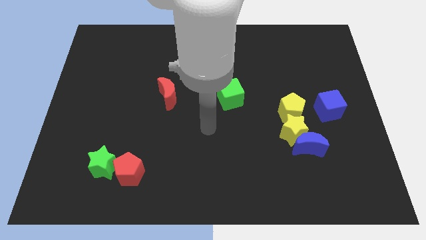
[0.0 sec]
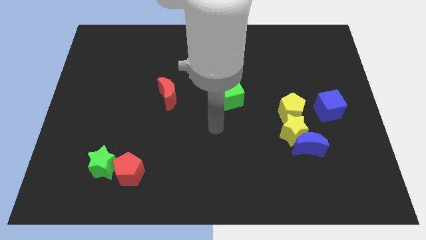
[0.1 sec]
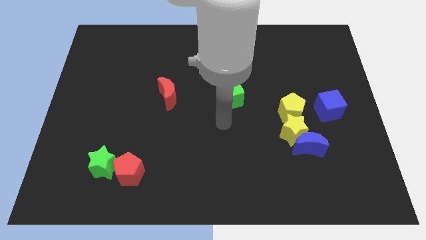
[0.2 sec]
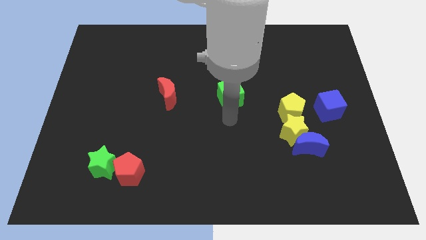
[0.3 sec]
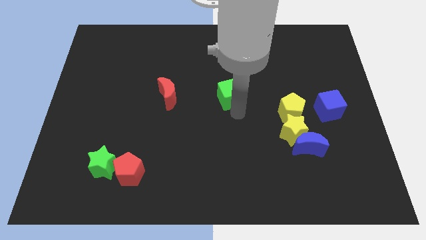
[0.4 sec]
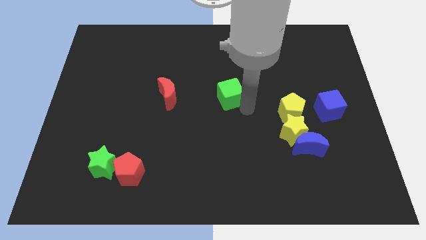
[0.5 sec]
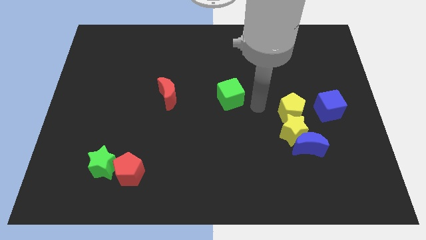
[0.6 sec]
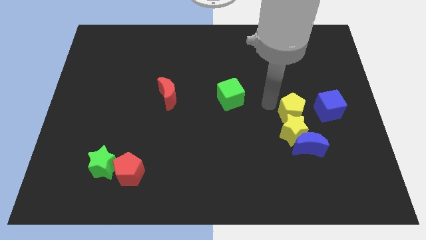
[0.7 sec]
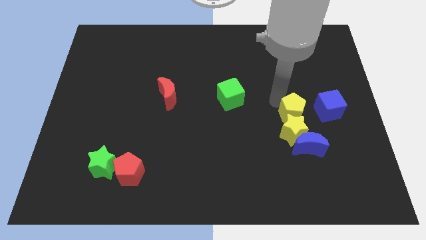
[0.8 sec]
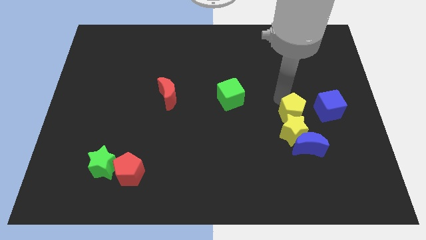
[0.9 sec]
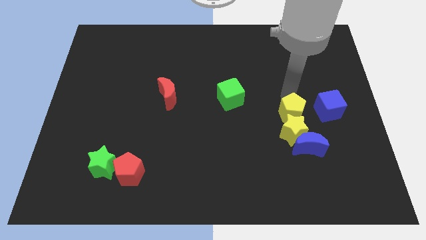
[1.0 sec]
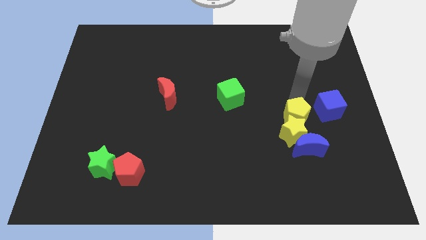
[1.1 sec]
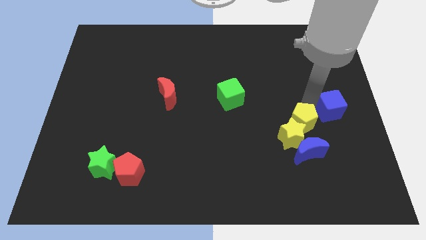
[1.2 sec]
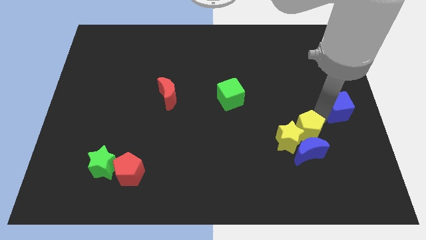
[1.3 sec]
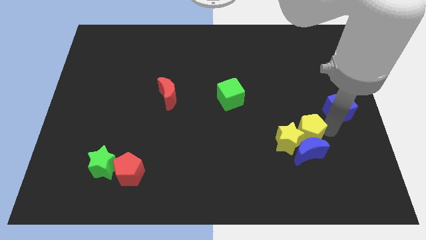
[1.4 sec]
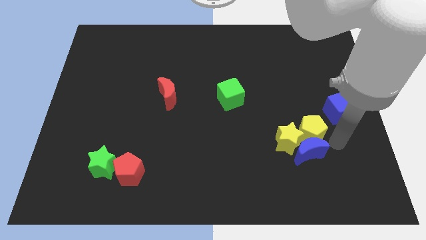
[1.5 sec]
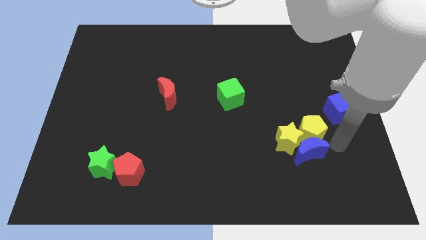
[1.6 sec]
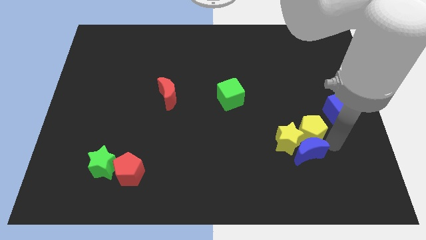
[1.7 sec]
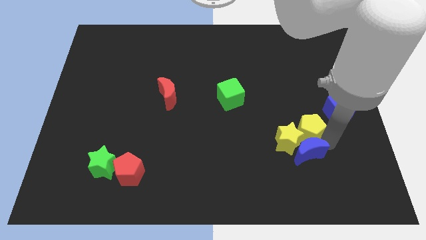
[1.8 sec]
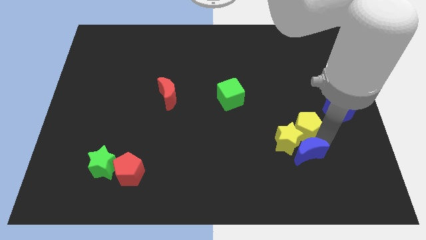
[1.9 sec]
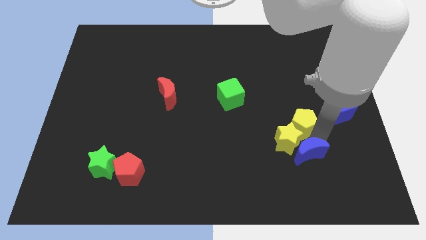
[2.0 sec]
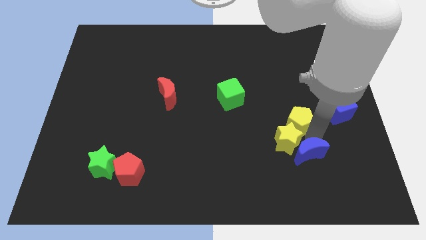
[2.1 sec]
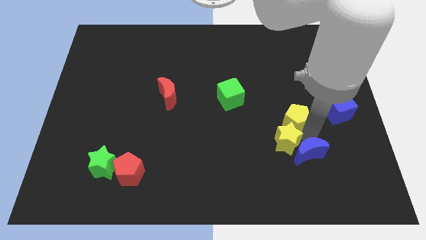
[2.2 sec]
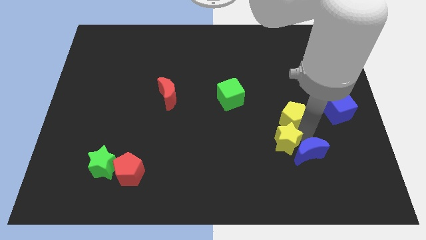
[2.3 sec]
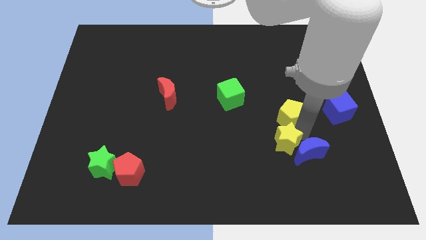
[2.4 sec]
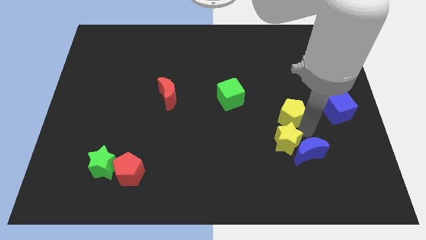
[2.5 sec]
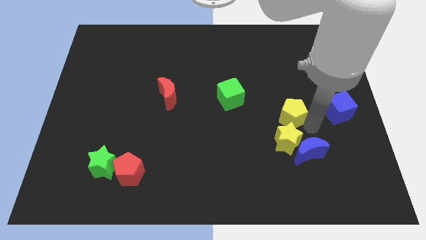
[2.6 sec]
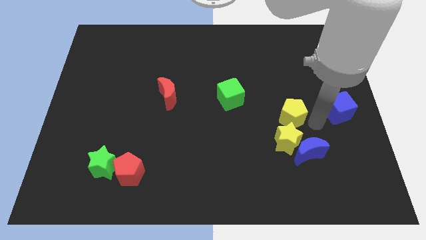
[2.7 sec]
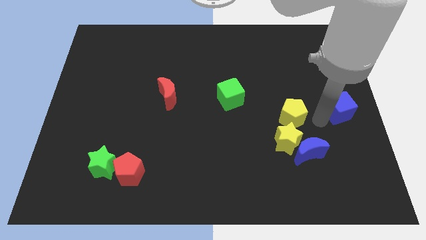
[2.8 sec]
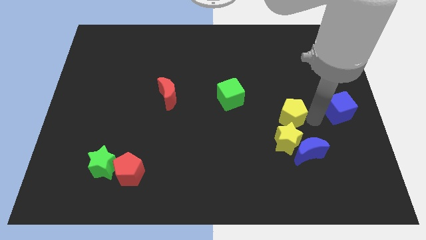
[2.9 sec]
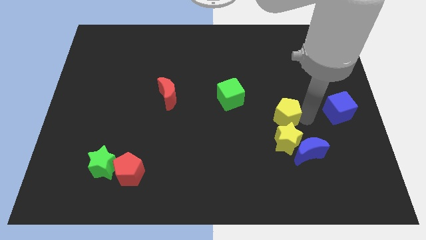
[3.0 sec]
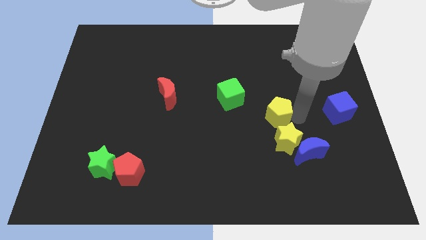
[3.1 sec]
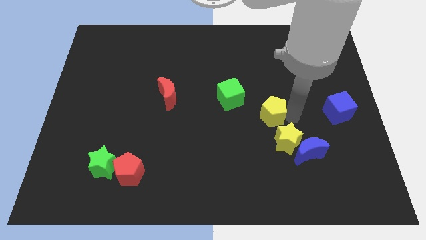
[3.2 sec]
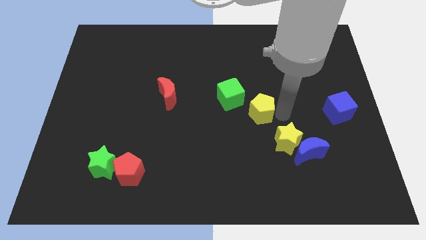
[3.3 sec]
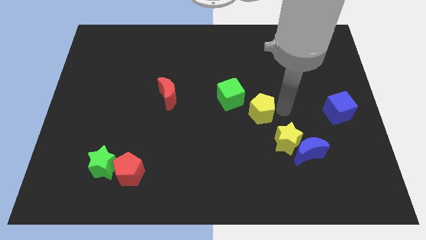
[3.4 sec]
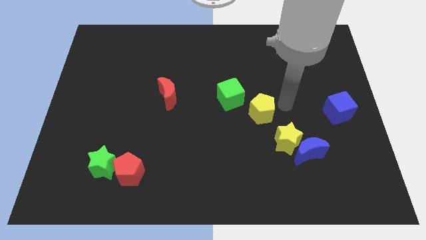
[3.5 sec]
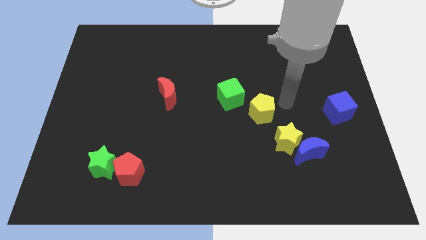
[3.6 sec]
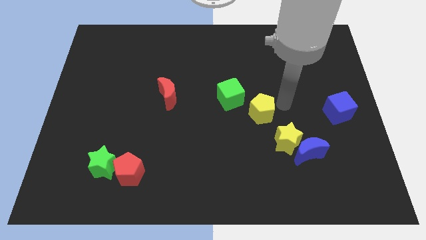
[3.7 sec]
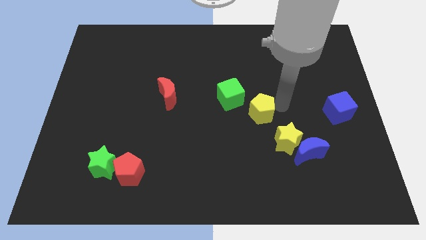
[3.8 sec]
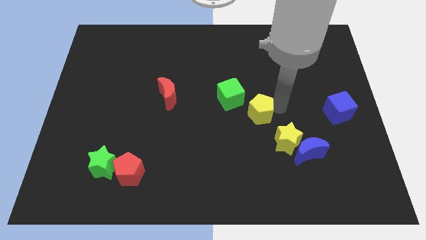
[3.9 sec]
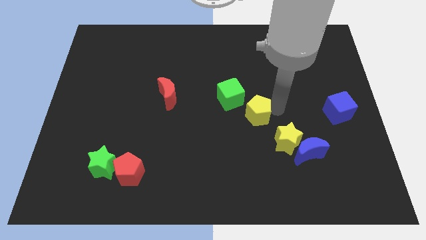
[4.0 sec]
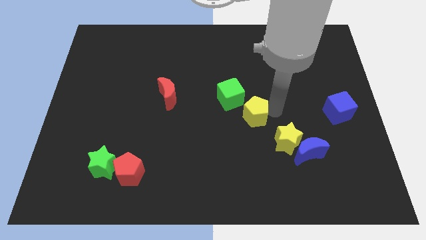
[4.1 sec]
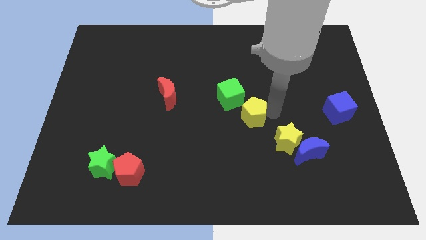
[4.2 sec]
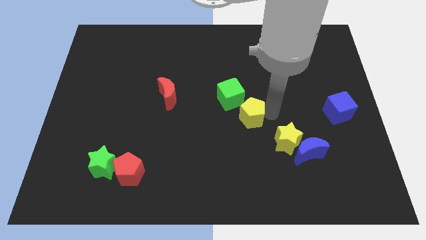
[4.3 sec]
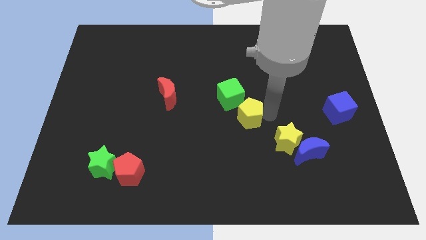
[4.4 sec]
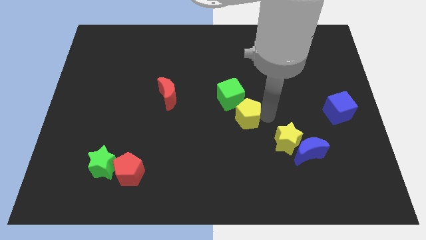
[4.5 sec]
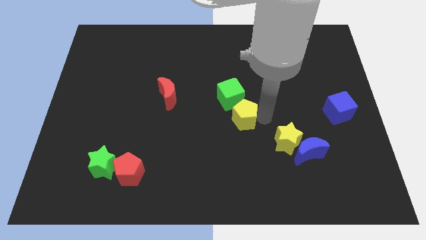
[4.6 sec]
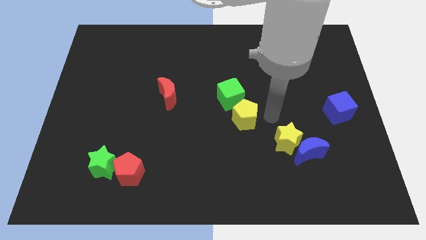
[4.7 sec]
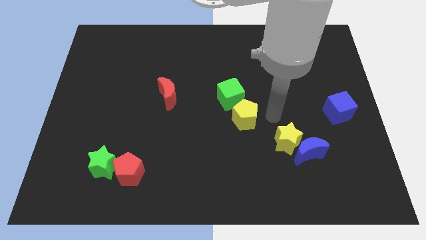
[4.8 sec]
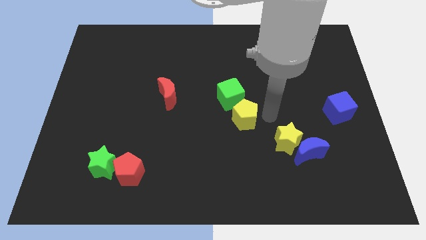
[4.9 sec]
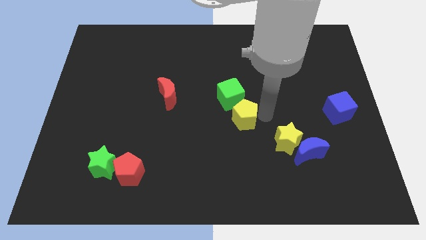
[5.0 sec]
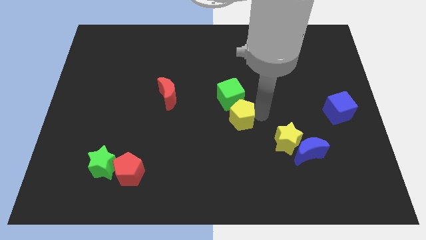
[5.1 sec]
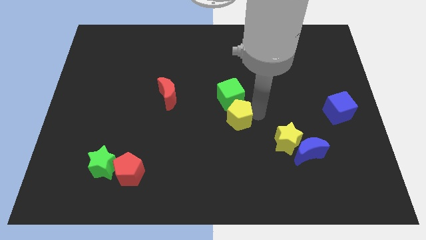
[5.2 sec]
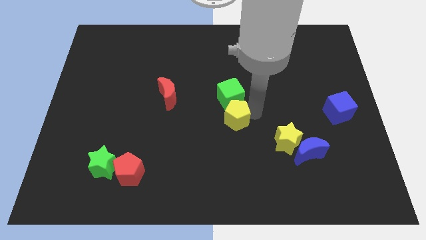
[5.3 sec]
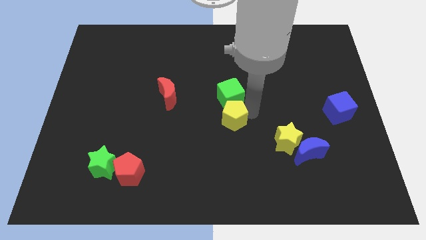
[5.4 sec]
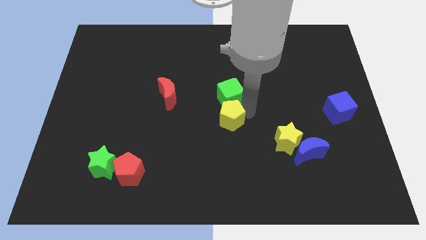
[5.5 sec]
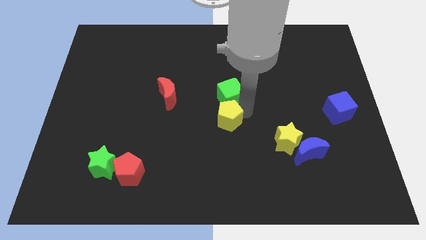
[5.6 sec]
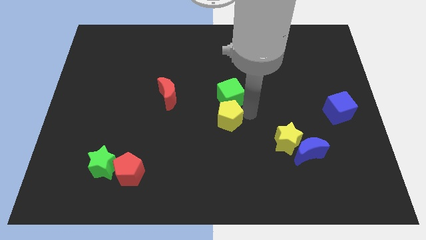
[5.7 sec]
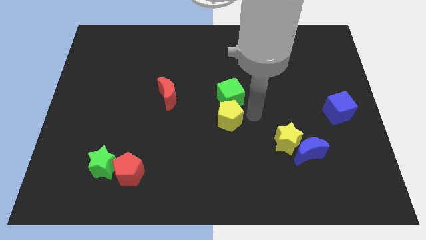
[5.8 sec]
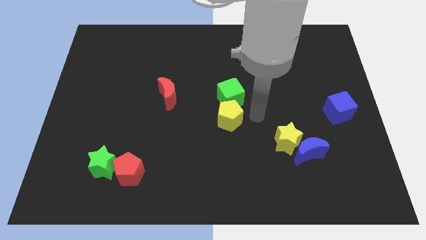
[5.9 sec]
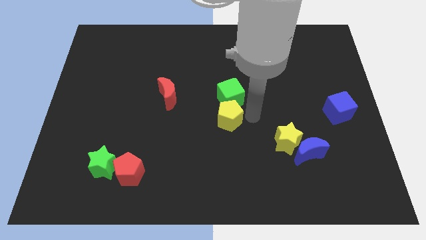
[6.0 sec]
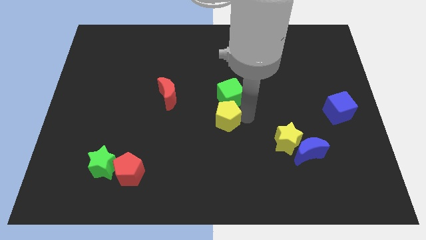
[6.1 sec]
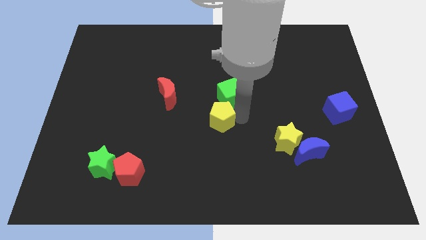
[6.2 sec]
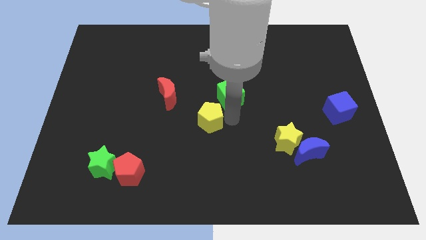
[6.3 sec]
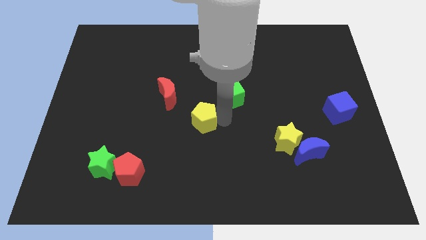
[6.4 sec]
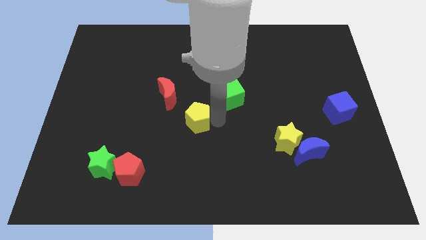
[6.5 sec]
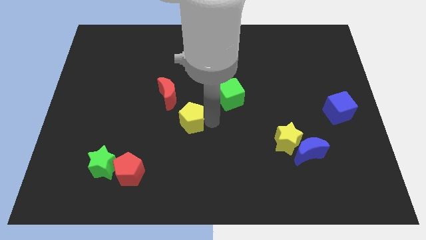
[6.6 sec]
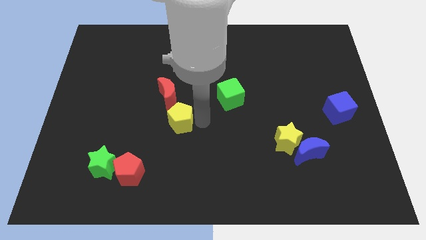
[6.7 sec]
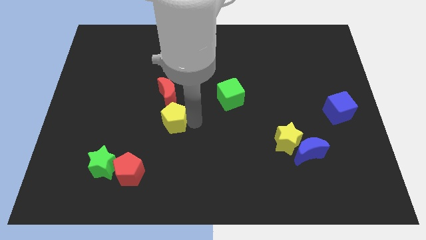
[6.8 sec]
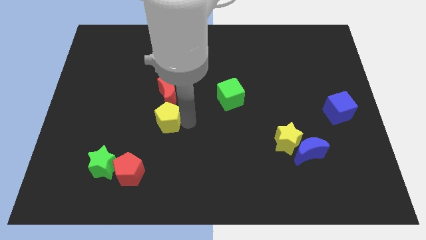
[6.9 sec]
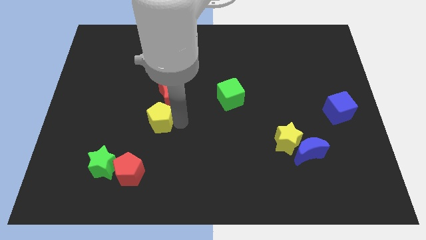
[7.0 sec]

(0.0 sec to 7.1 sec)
put the yellow pentagon diagonally down and to the left of the red moon
